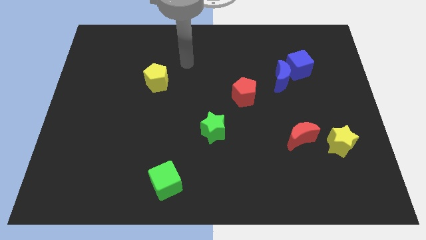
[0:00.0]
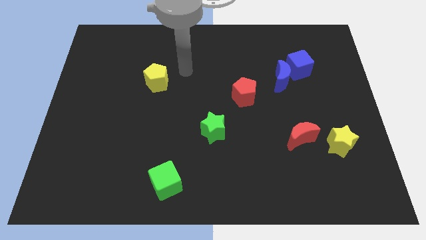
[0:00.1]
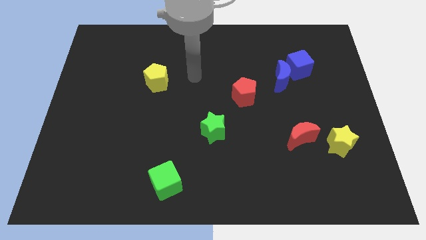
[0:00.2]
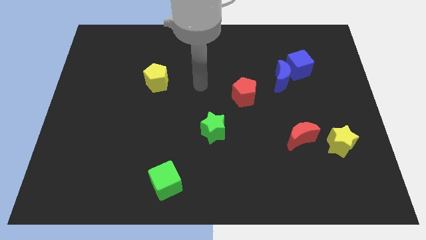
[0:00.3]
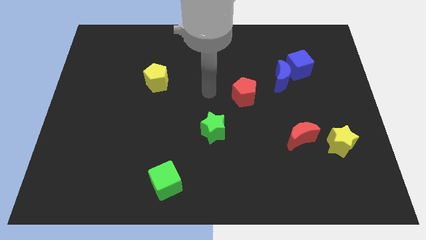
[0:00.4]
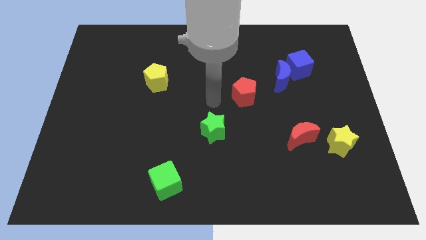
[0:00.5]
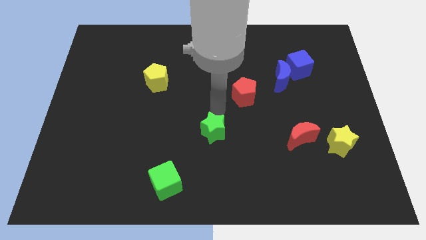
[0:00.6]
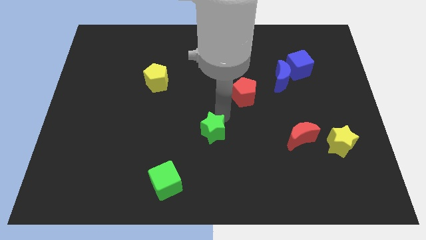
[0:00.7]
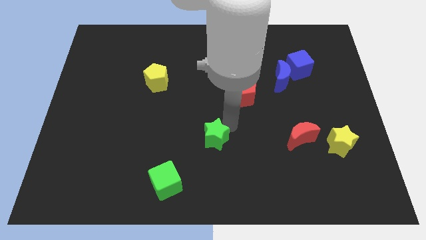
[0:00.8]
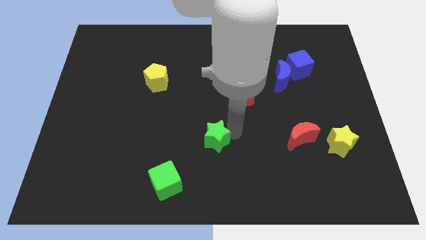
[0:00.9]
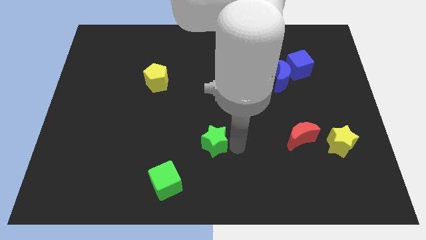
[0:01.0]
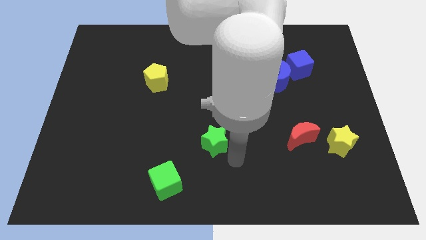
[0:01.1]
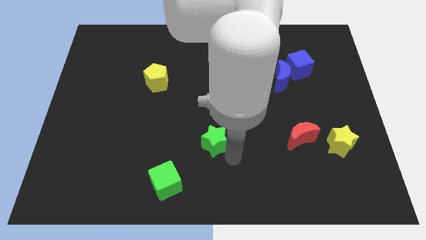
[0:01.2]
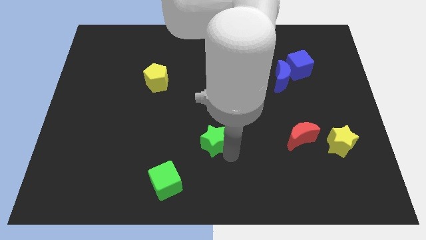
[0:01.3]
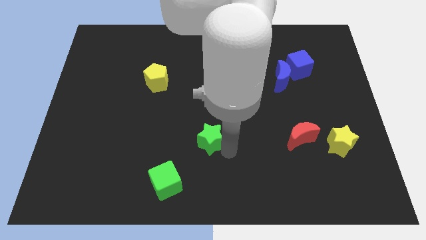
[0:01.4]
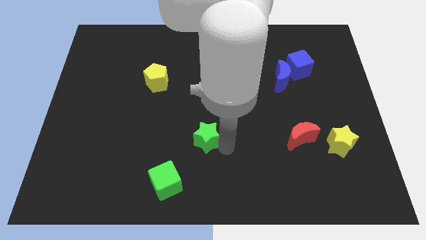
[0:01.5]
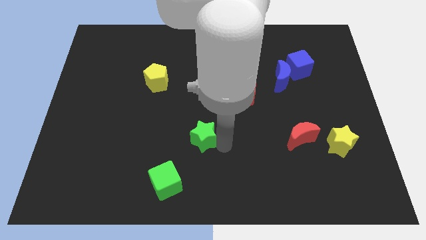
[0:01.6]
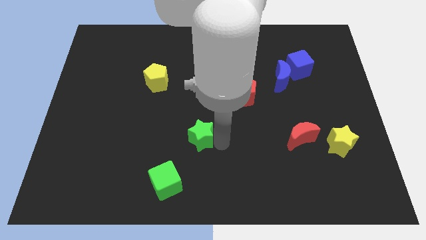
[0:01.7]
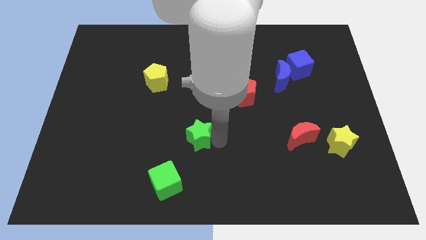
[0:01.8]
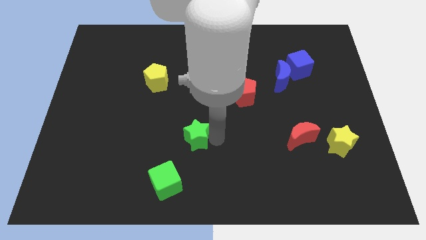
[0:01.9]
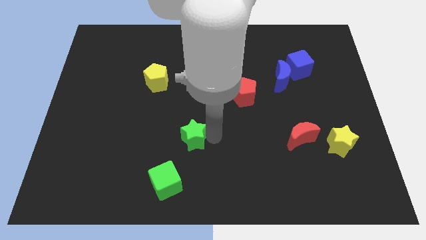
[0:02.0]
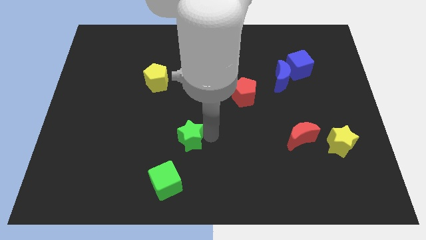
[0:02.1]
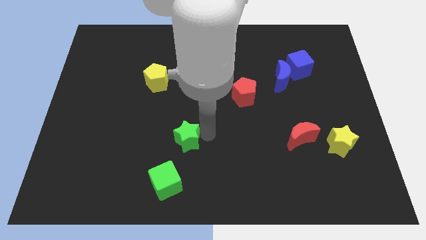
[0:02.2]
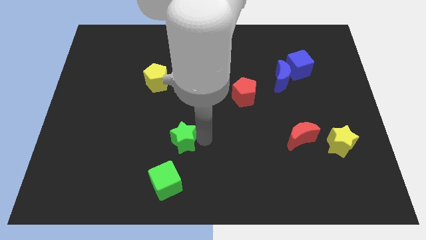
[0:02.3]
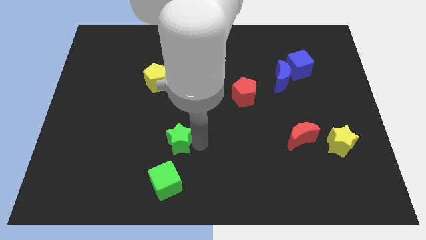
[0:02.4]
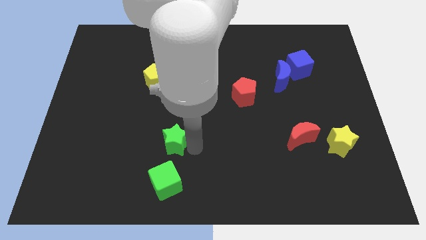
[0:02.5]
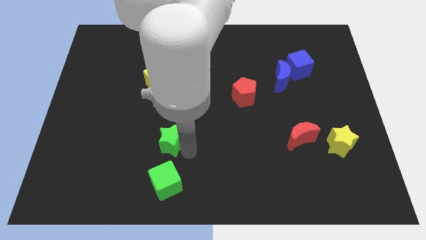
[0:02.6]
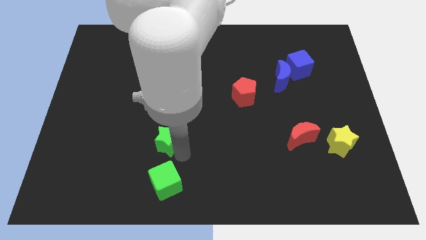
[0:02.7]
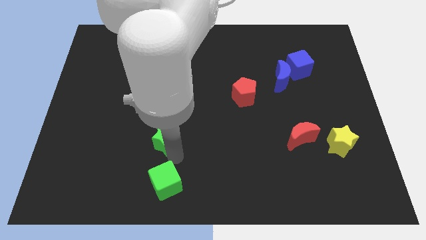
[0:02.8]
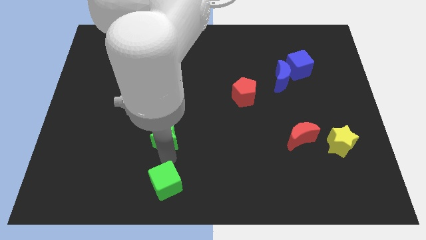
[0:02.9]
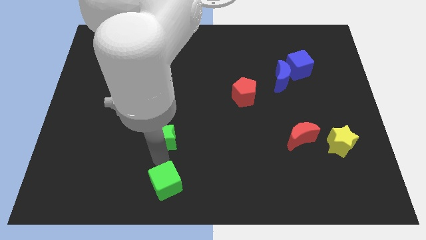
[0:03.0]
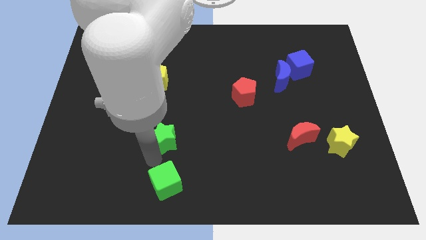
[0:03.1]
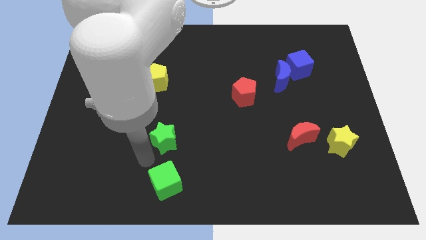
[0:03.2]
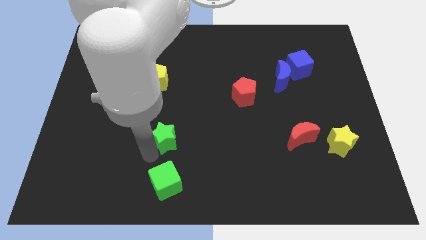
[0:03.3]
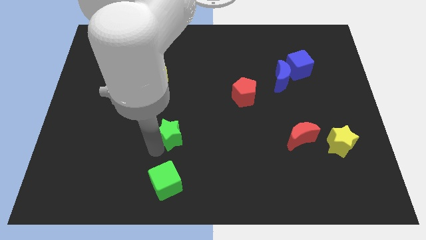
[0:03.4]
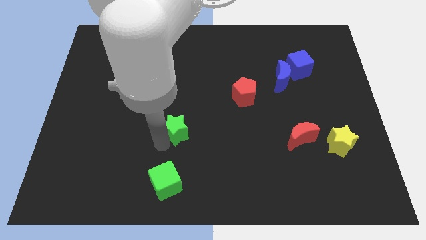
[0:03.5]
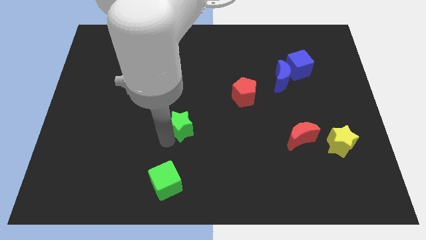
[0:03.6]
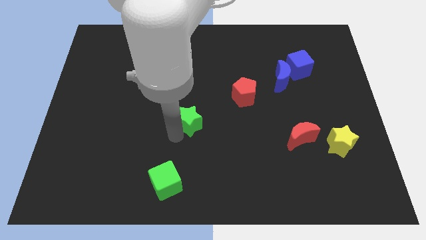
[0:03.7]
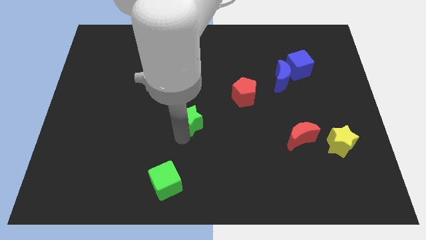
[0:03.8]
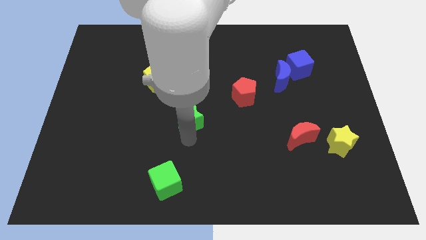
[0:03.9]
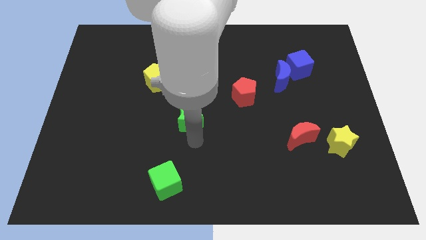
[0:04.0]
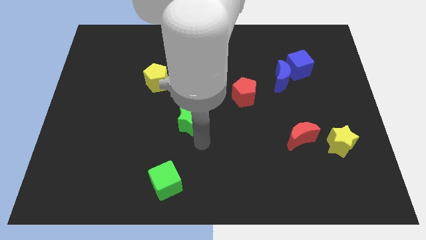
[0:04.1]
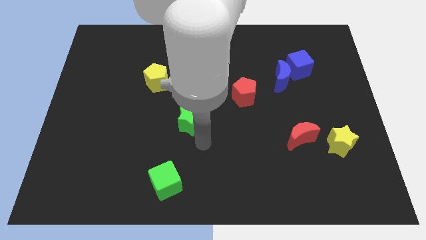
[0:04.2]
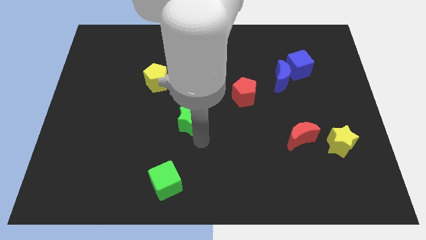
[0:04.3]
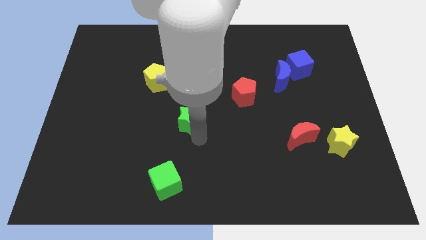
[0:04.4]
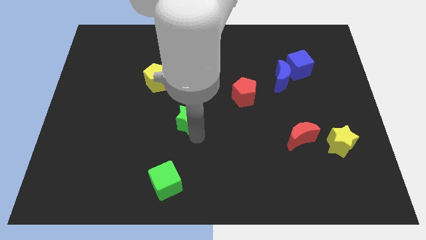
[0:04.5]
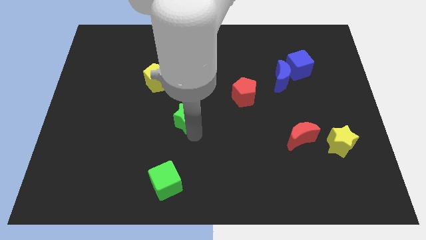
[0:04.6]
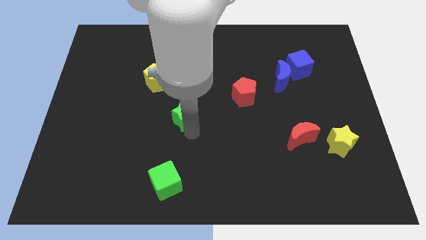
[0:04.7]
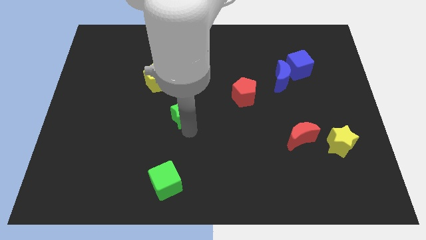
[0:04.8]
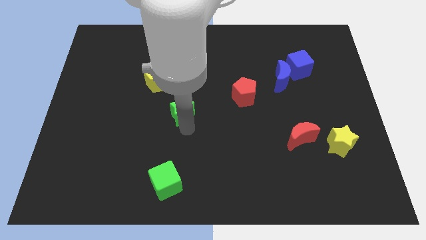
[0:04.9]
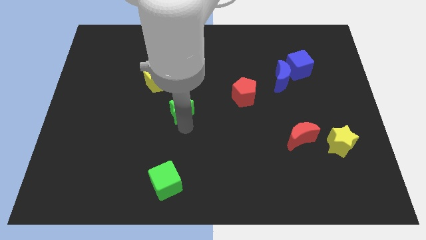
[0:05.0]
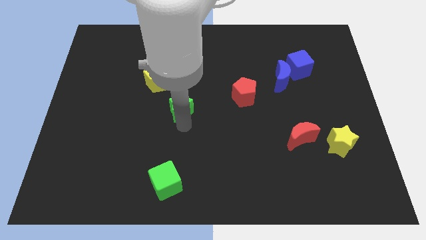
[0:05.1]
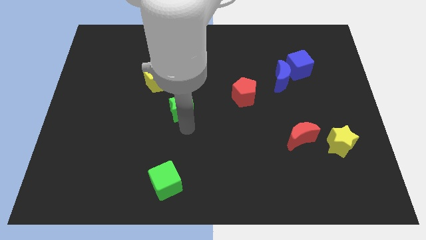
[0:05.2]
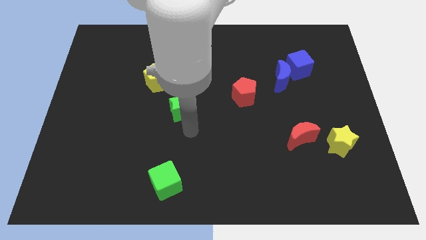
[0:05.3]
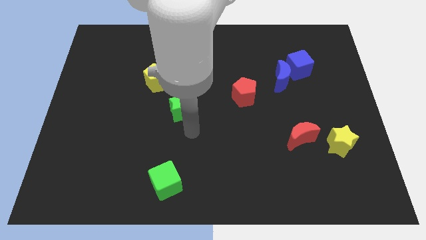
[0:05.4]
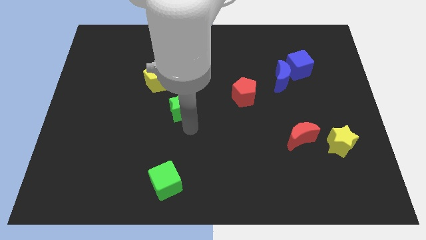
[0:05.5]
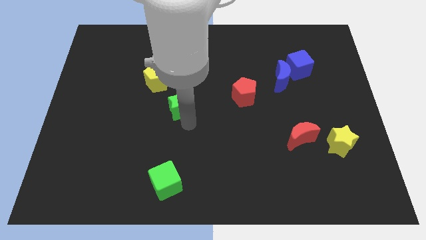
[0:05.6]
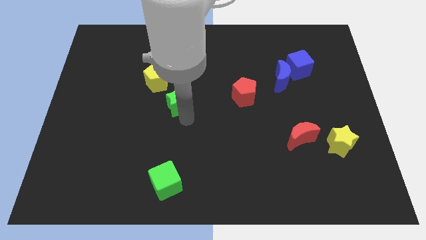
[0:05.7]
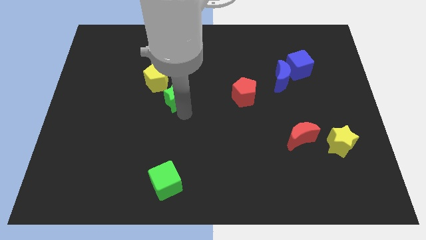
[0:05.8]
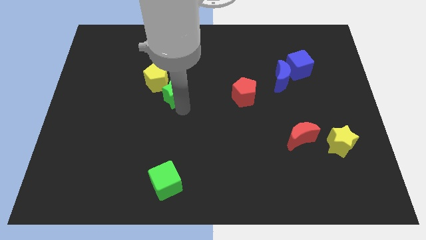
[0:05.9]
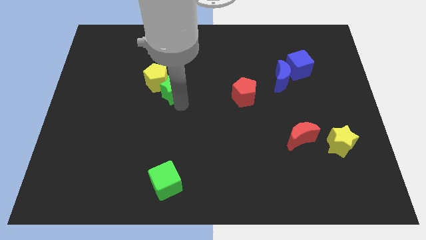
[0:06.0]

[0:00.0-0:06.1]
move the green star to the yellow pentagon

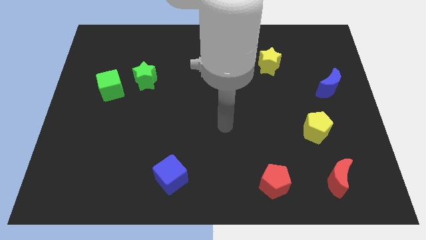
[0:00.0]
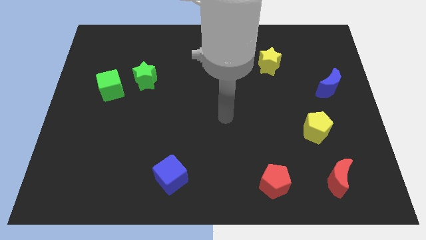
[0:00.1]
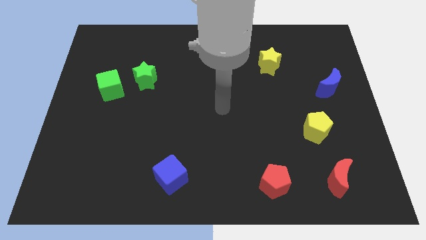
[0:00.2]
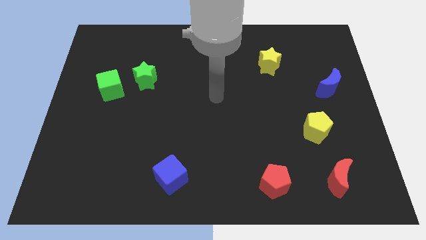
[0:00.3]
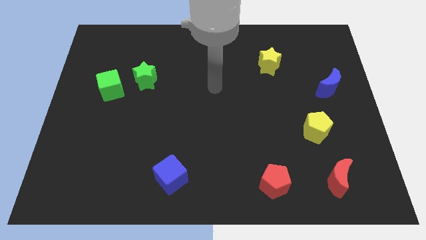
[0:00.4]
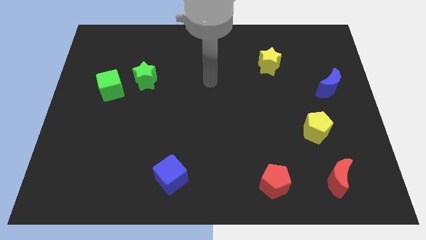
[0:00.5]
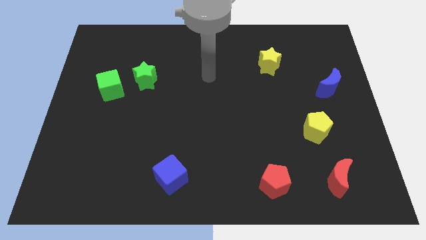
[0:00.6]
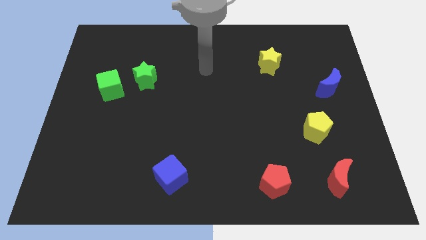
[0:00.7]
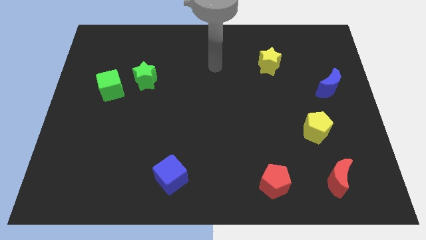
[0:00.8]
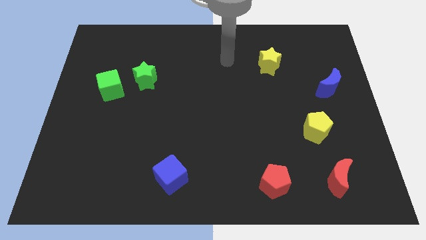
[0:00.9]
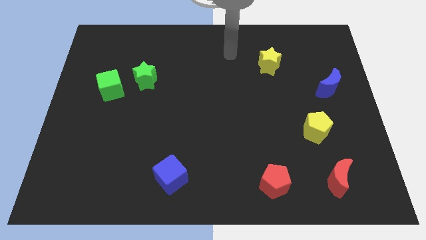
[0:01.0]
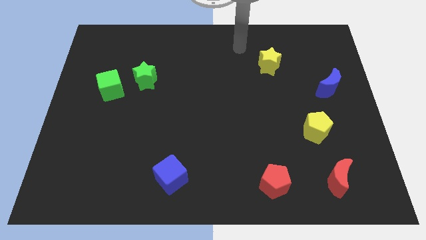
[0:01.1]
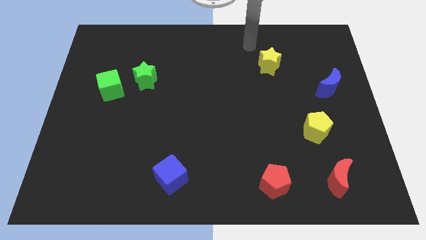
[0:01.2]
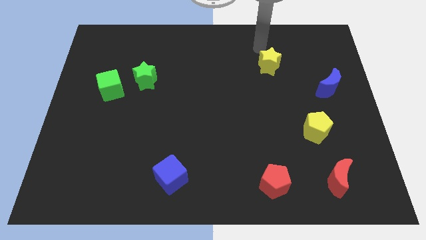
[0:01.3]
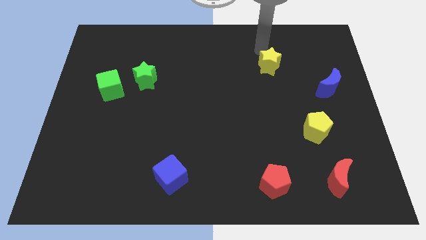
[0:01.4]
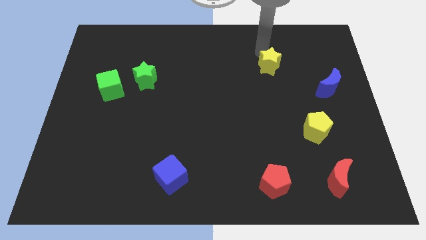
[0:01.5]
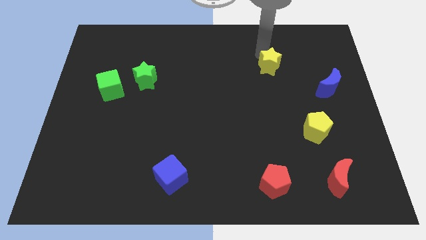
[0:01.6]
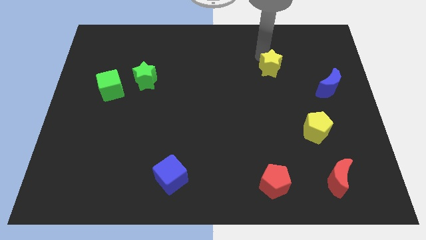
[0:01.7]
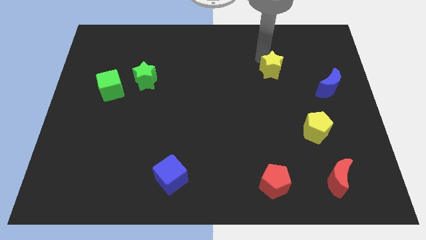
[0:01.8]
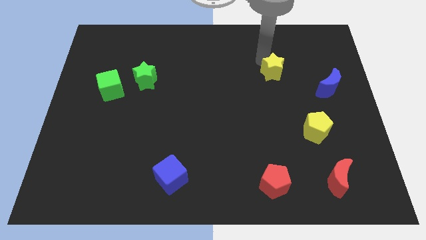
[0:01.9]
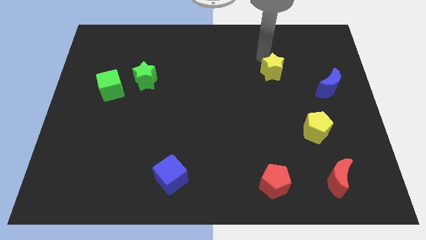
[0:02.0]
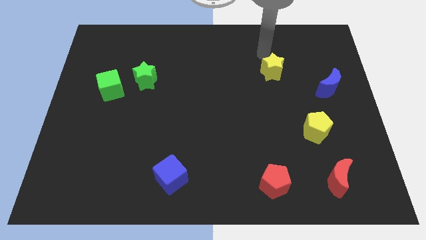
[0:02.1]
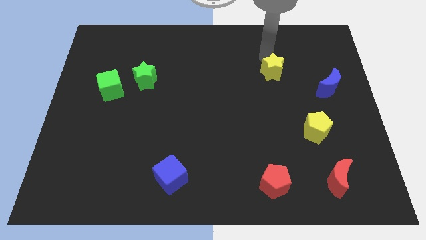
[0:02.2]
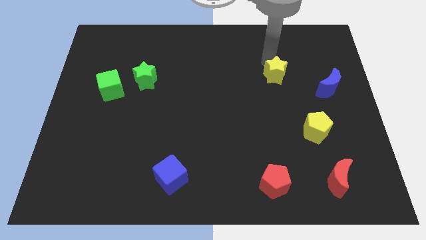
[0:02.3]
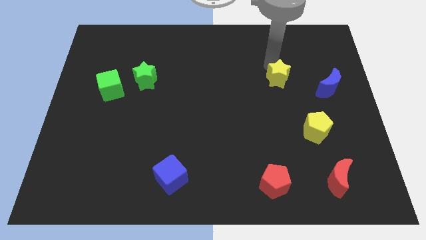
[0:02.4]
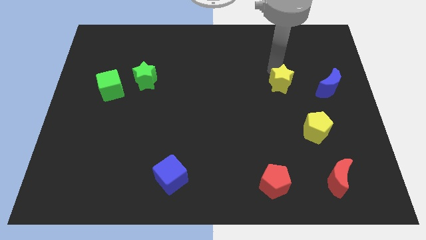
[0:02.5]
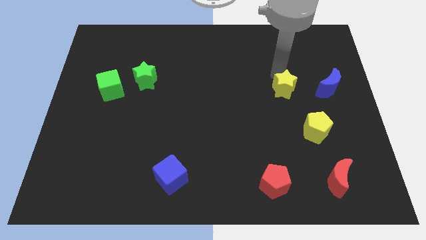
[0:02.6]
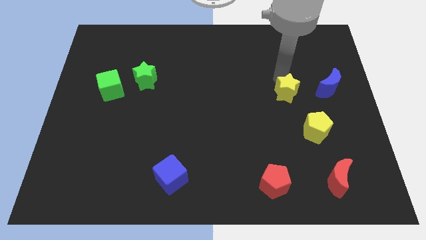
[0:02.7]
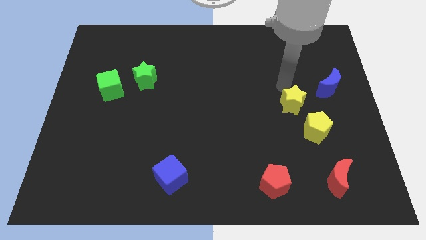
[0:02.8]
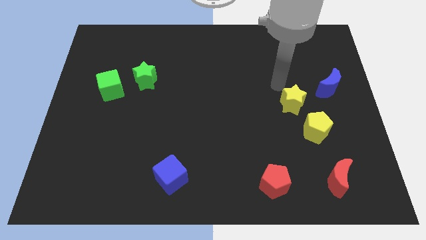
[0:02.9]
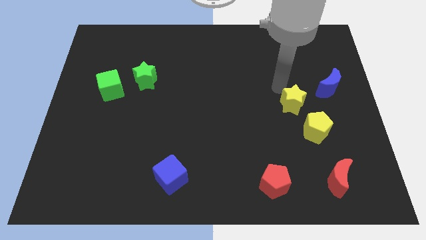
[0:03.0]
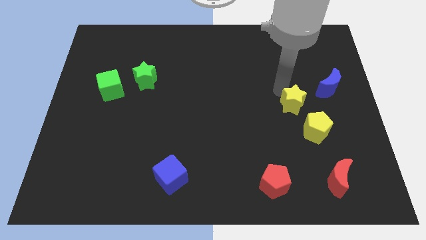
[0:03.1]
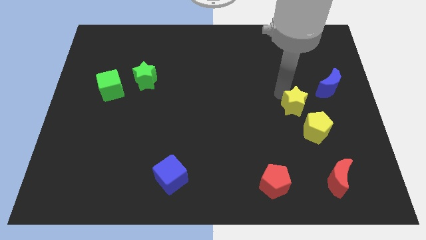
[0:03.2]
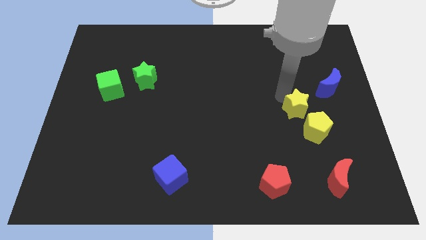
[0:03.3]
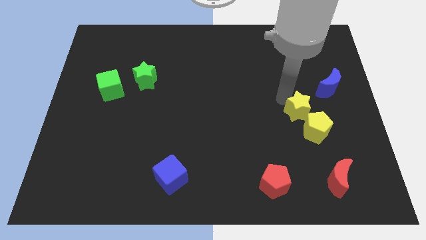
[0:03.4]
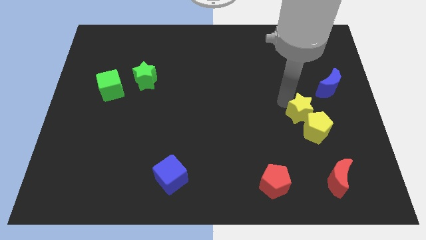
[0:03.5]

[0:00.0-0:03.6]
push the yellow star towards the yellow pentagon
